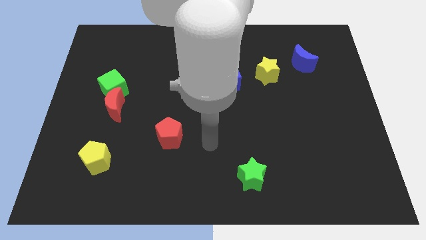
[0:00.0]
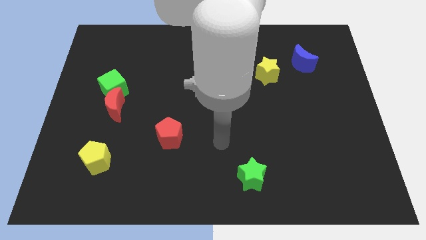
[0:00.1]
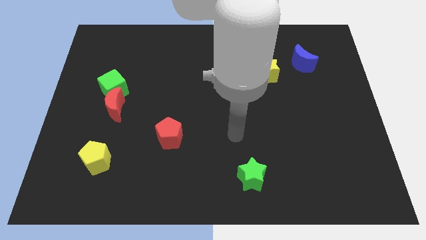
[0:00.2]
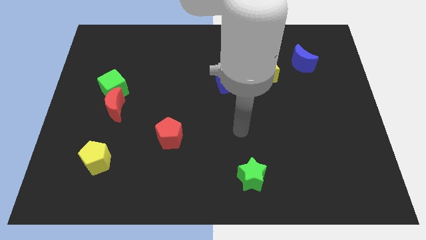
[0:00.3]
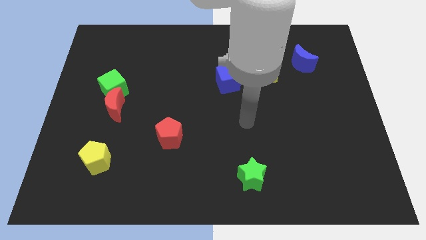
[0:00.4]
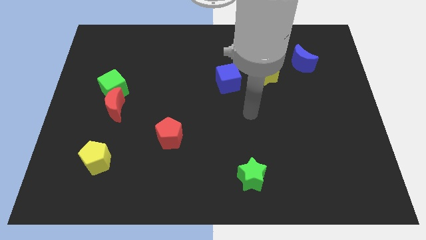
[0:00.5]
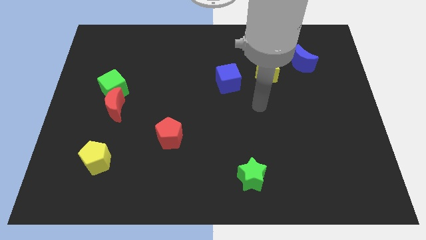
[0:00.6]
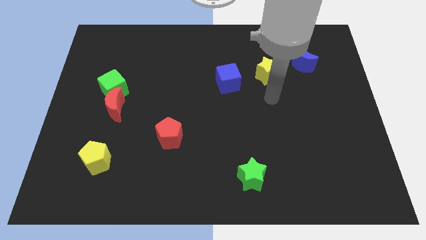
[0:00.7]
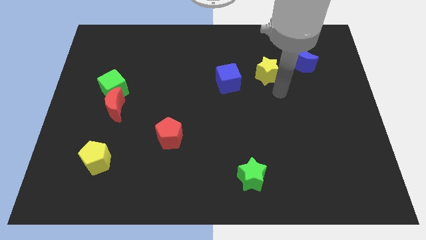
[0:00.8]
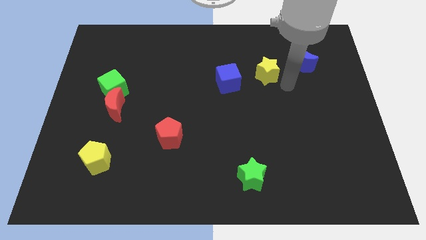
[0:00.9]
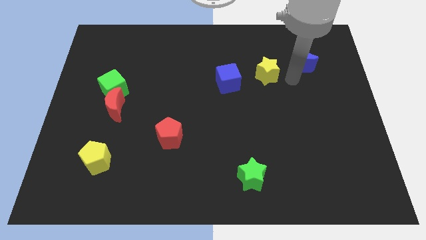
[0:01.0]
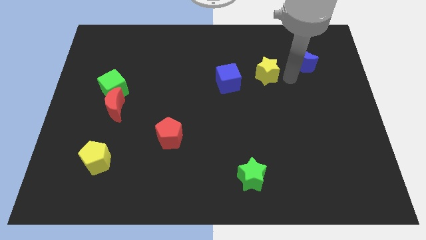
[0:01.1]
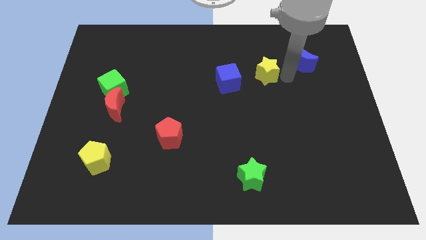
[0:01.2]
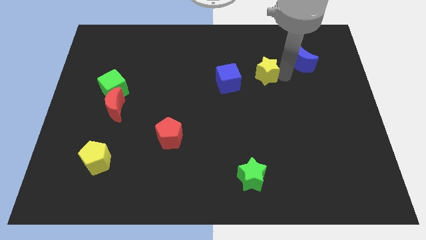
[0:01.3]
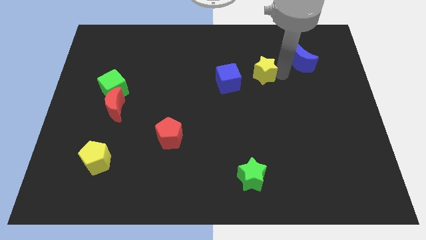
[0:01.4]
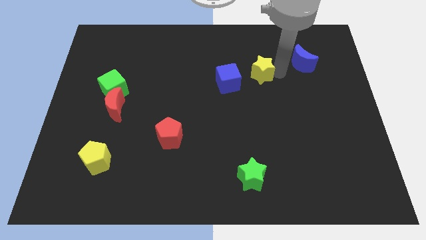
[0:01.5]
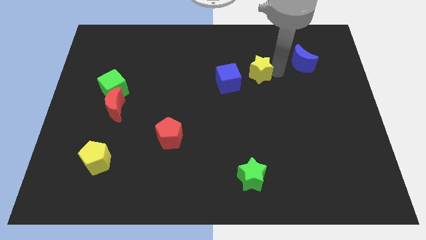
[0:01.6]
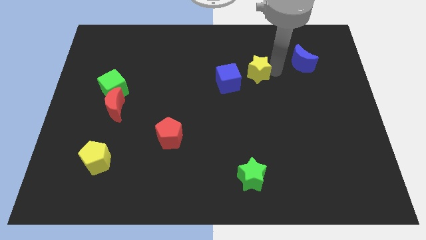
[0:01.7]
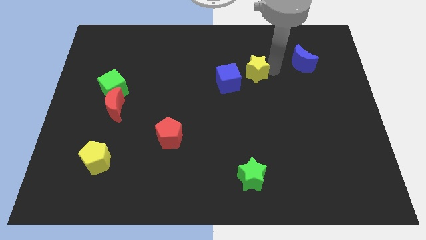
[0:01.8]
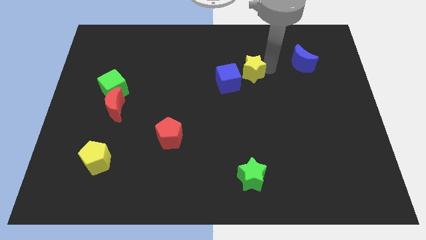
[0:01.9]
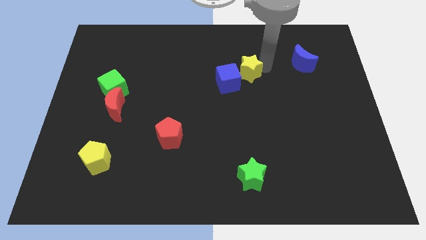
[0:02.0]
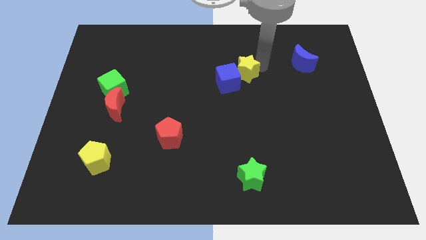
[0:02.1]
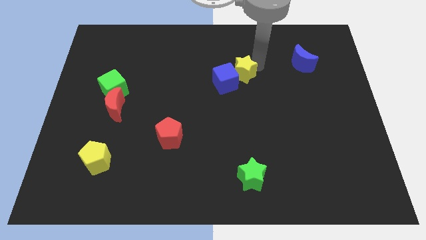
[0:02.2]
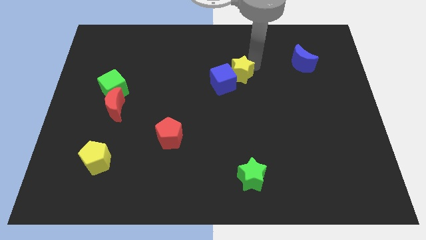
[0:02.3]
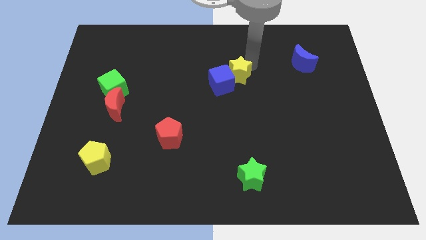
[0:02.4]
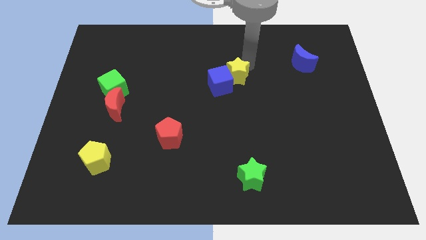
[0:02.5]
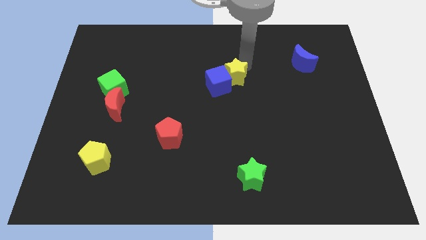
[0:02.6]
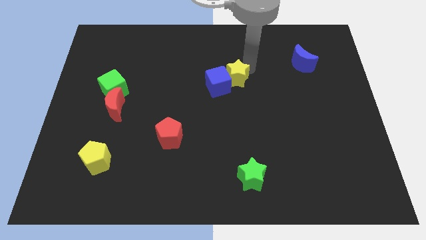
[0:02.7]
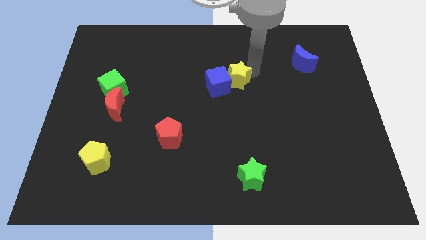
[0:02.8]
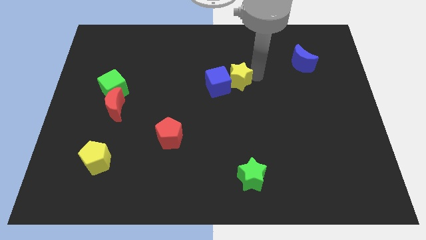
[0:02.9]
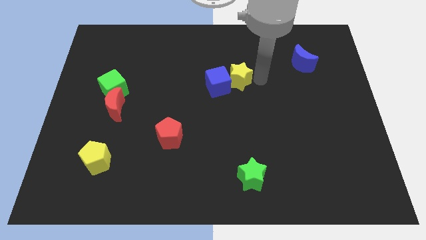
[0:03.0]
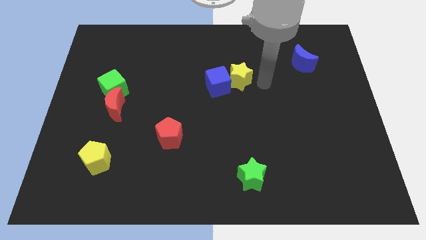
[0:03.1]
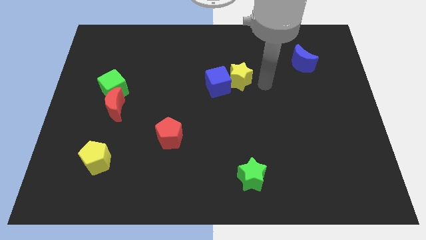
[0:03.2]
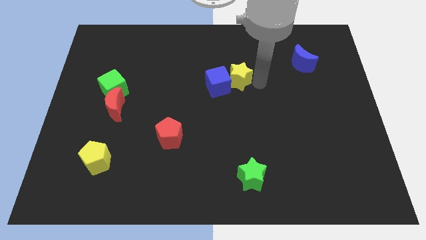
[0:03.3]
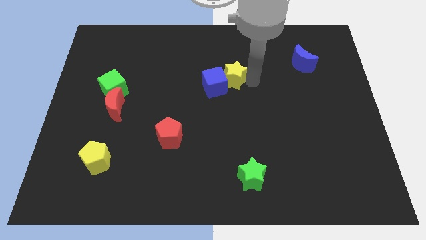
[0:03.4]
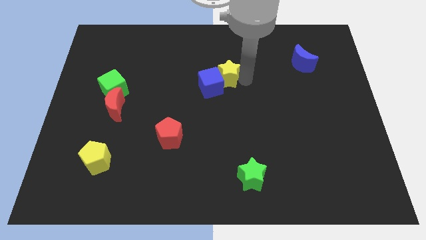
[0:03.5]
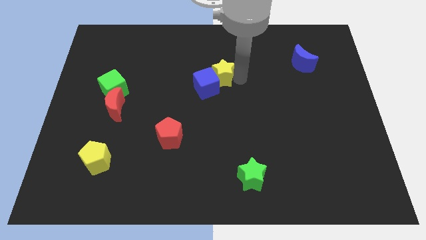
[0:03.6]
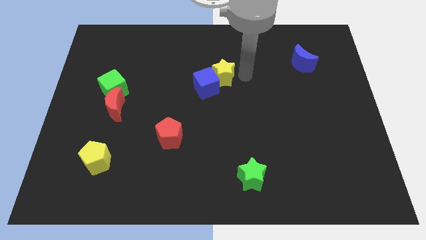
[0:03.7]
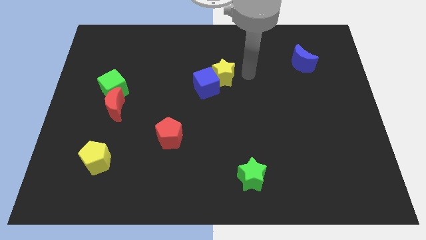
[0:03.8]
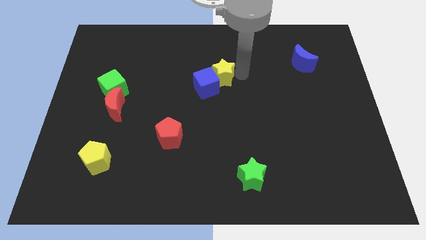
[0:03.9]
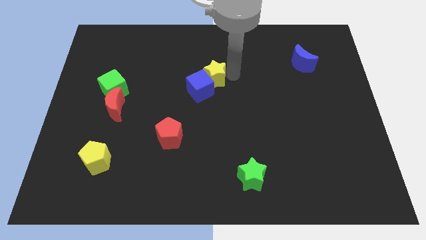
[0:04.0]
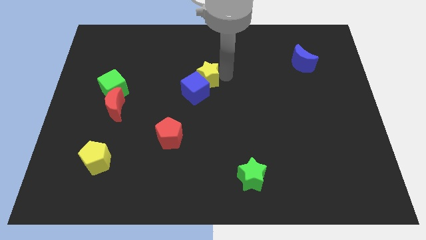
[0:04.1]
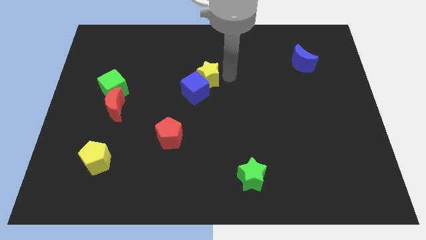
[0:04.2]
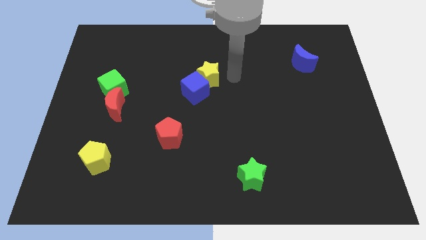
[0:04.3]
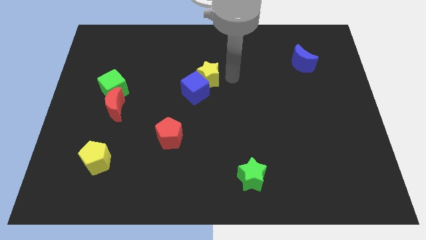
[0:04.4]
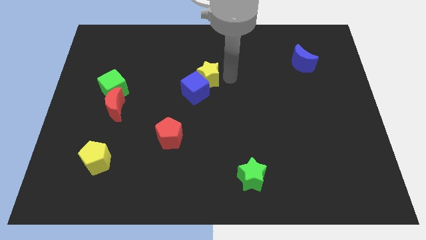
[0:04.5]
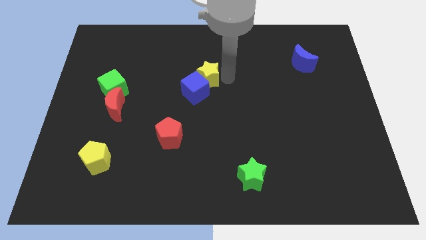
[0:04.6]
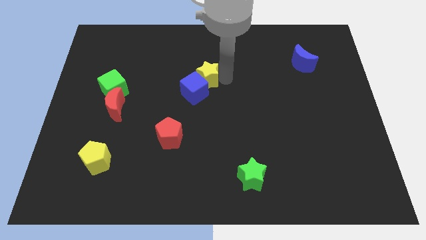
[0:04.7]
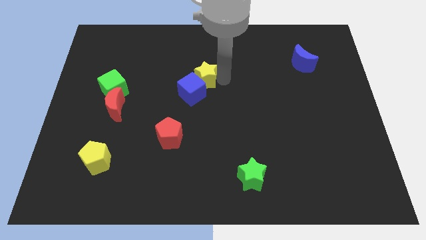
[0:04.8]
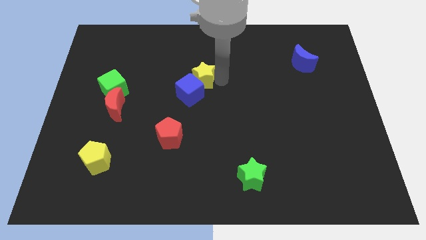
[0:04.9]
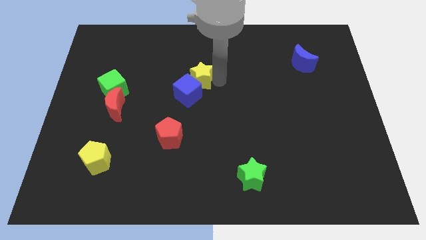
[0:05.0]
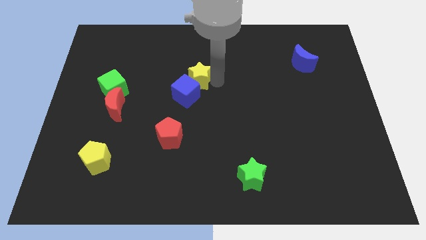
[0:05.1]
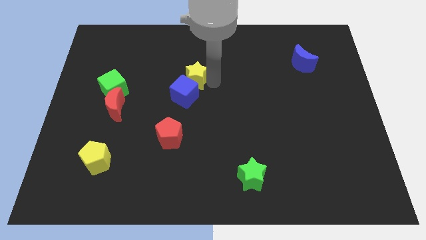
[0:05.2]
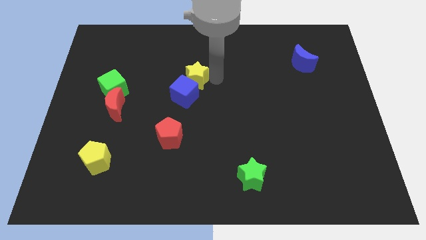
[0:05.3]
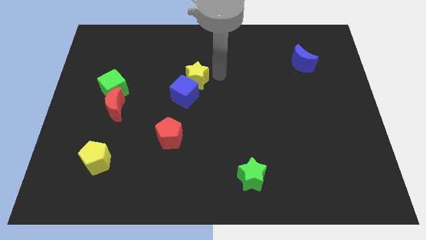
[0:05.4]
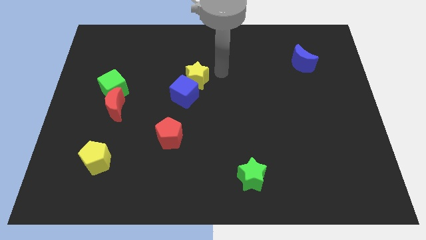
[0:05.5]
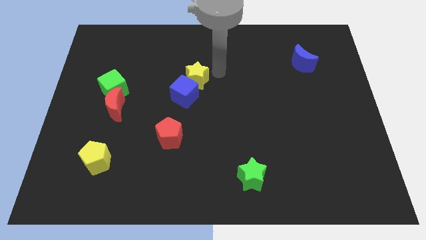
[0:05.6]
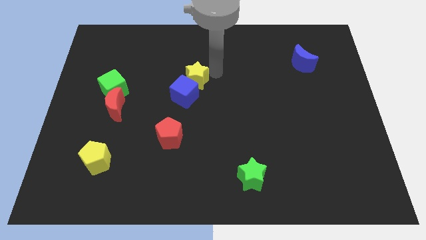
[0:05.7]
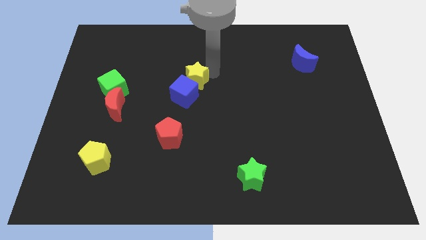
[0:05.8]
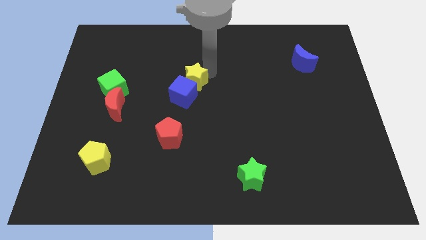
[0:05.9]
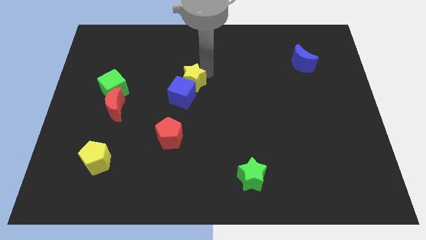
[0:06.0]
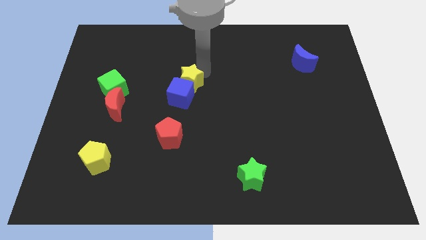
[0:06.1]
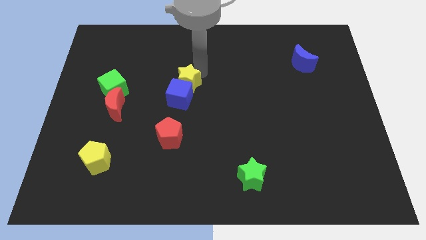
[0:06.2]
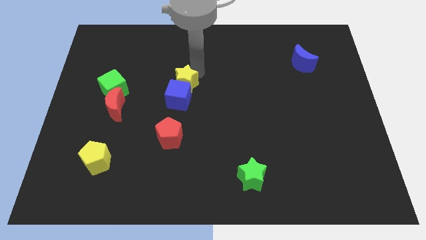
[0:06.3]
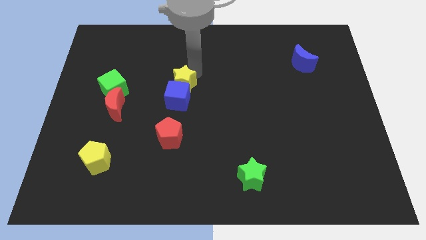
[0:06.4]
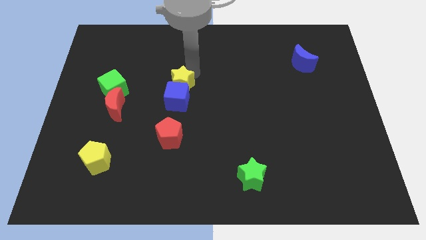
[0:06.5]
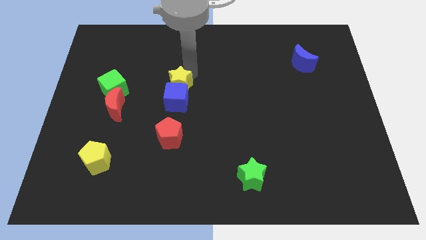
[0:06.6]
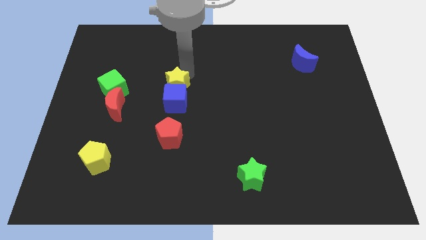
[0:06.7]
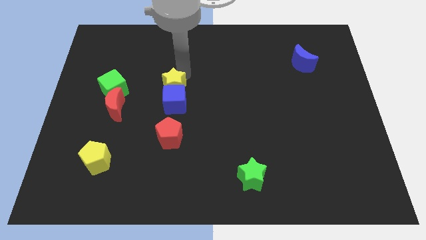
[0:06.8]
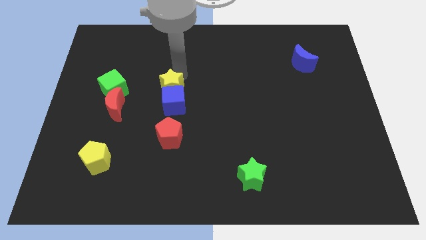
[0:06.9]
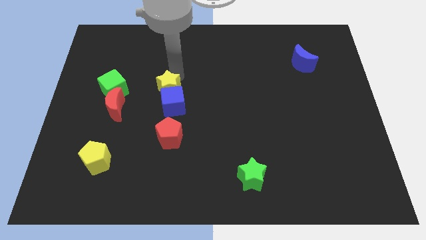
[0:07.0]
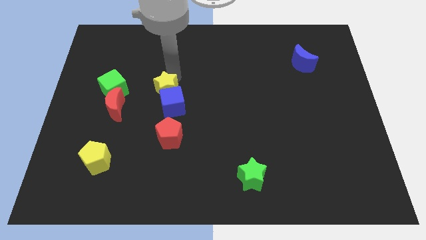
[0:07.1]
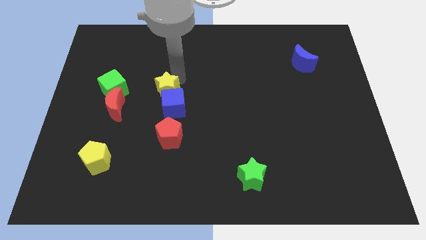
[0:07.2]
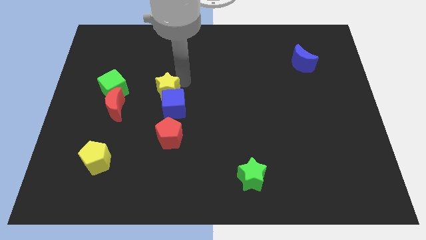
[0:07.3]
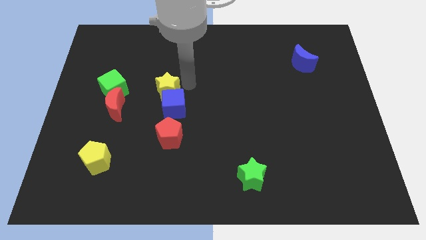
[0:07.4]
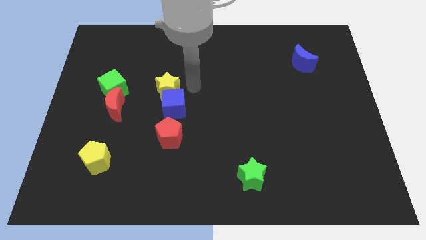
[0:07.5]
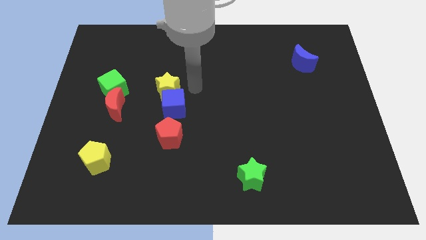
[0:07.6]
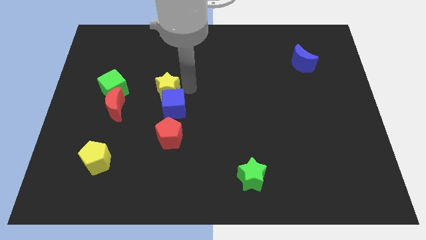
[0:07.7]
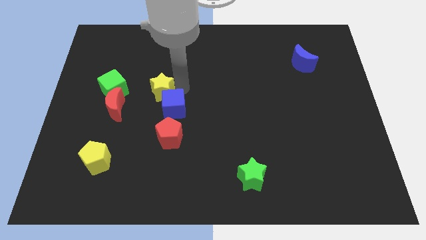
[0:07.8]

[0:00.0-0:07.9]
put the yellow star to the top right side of the red moon
